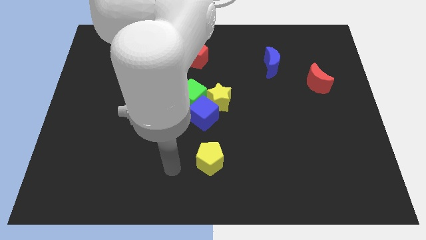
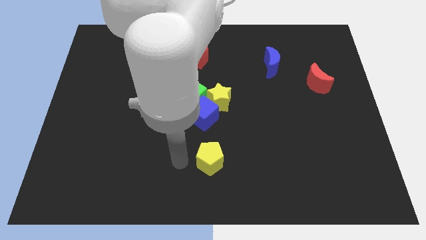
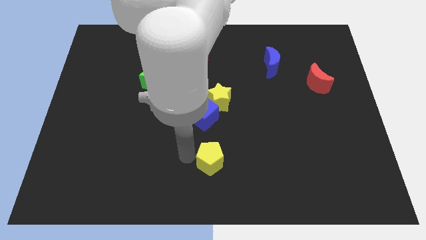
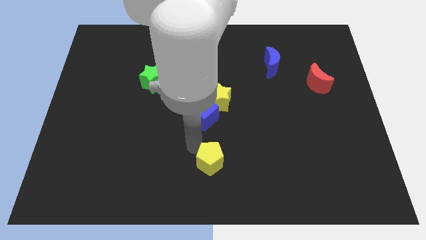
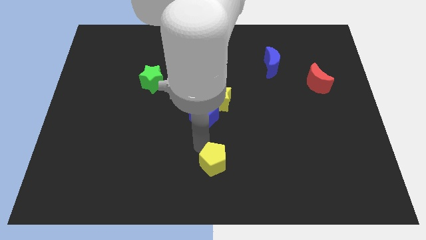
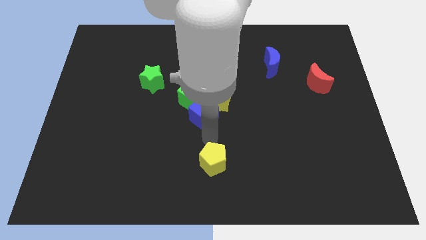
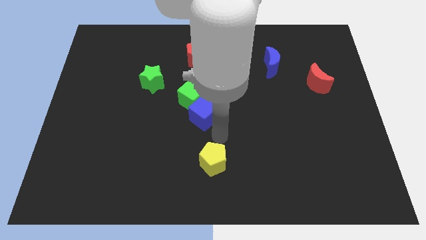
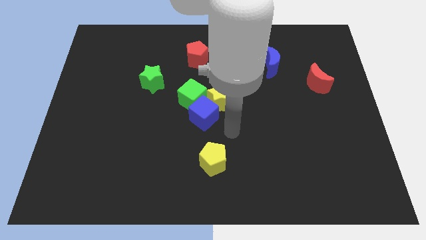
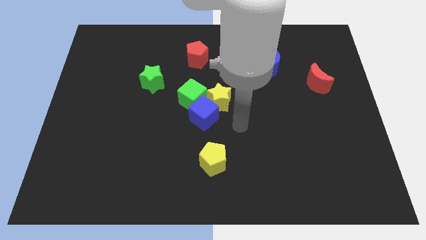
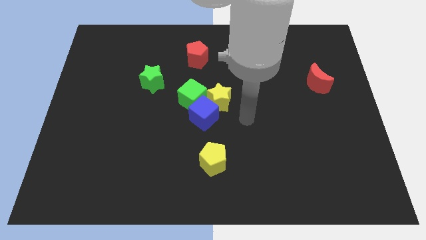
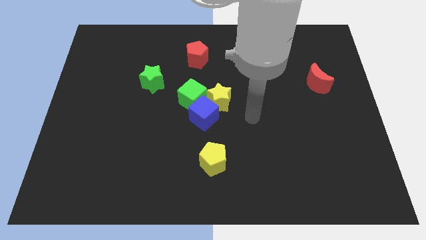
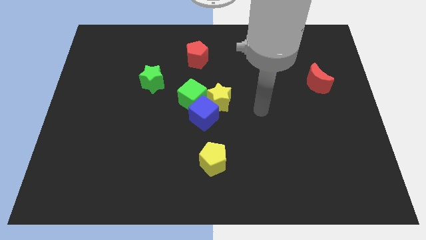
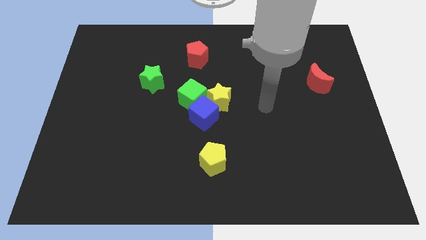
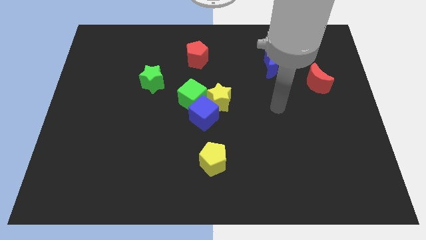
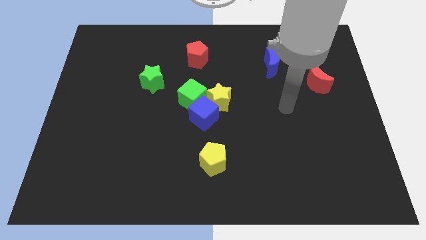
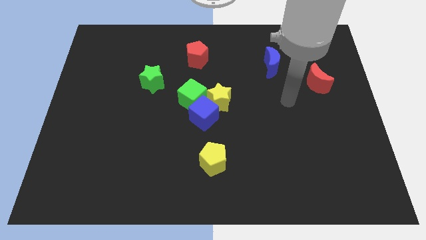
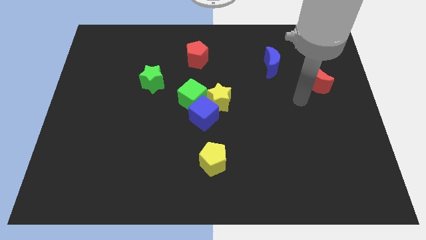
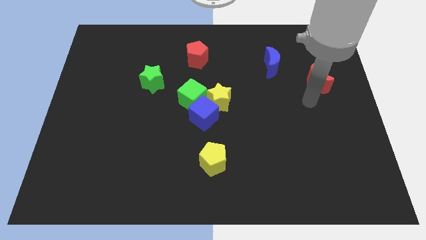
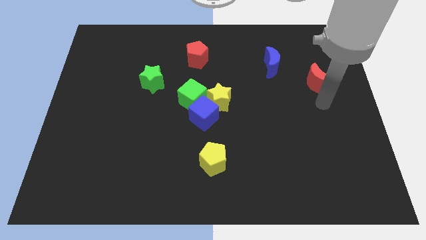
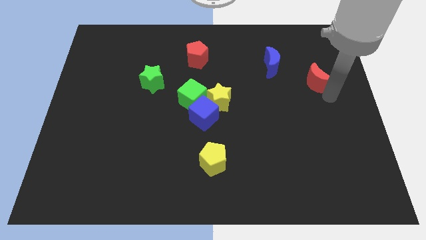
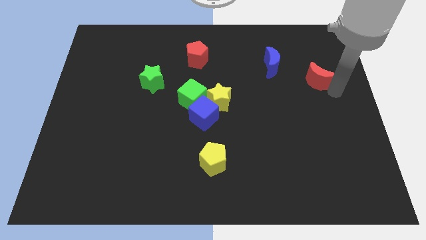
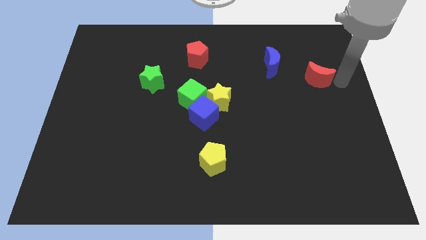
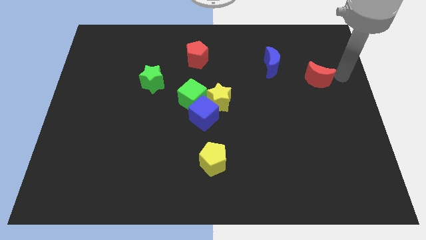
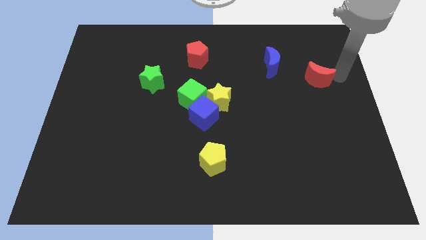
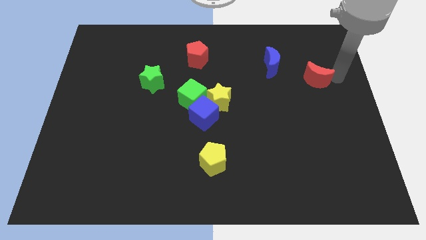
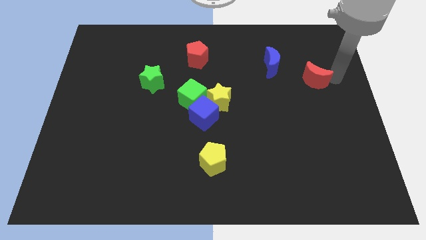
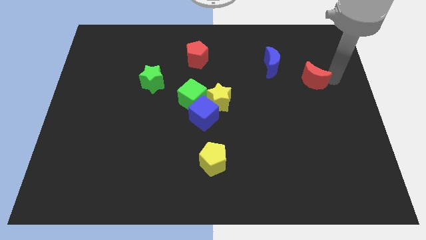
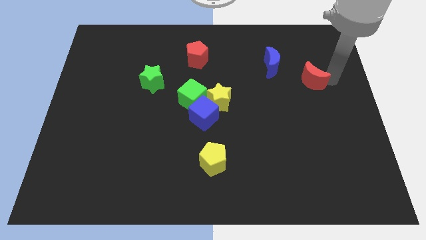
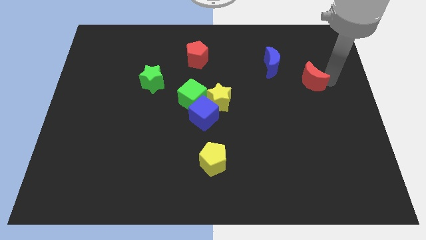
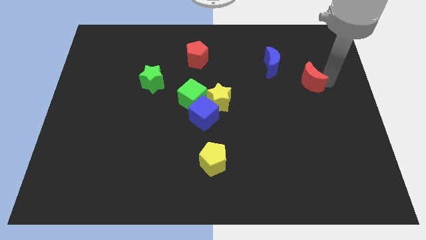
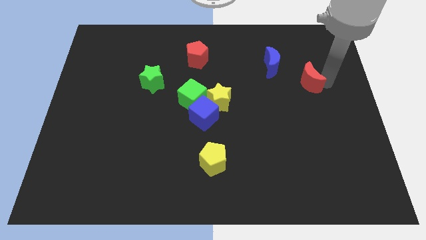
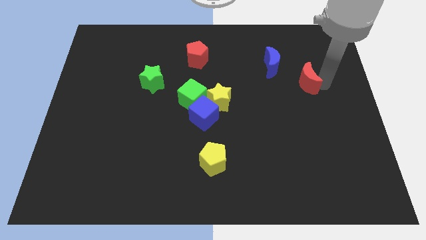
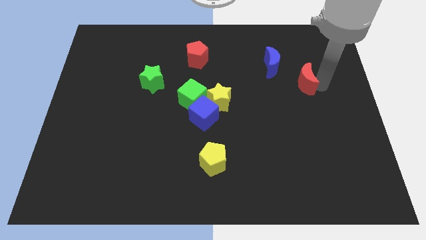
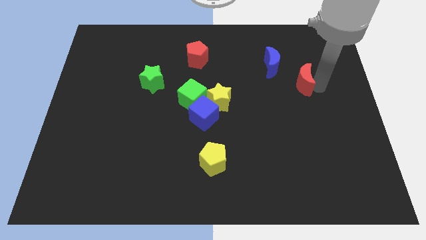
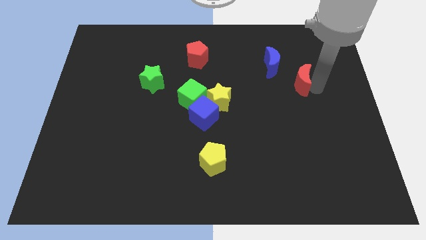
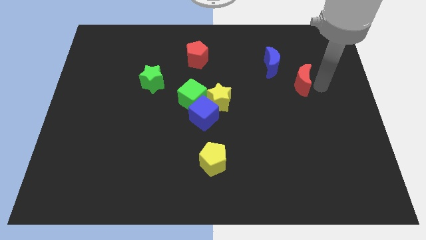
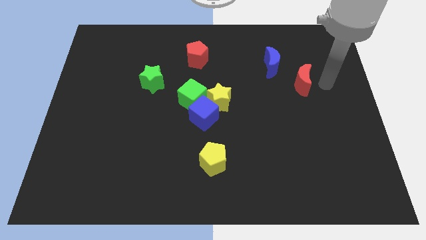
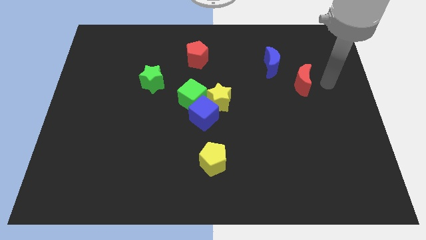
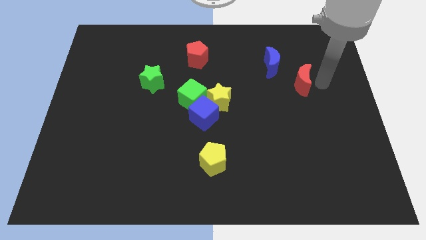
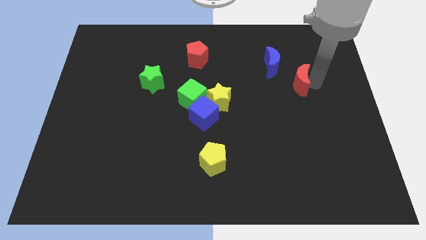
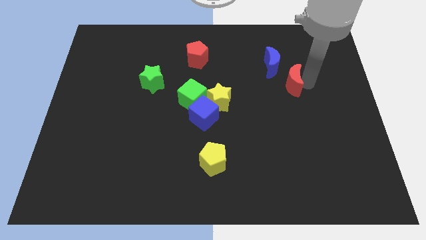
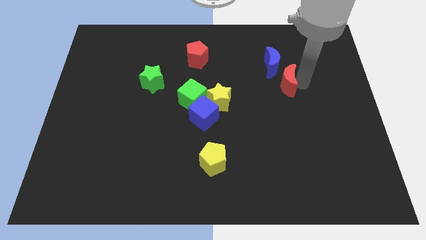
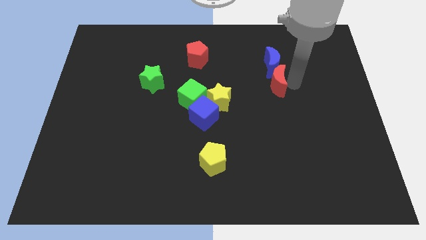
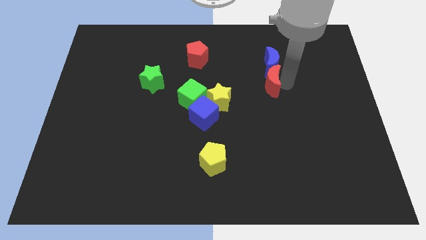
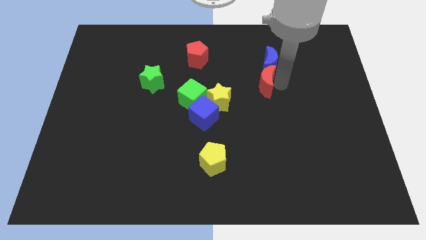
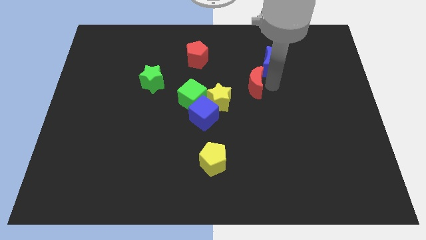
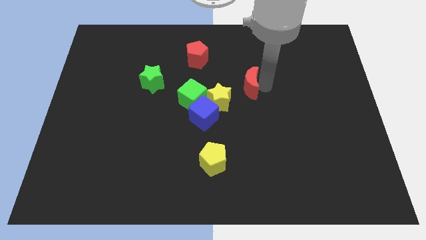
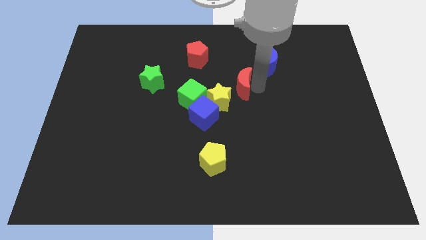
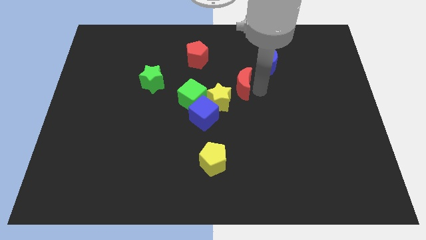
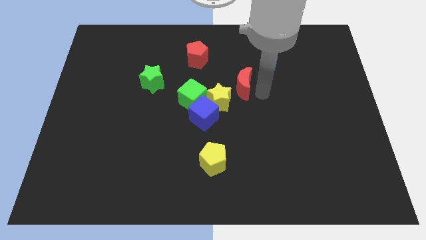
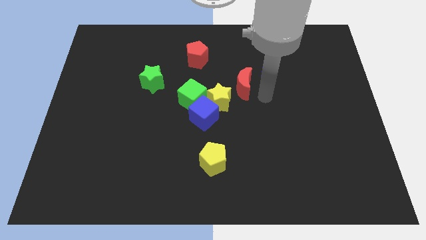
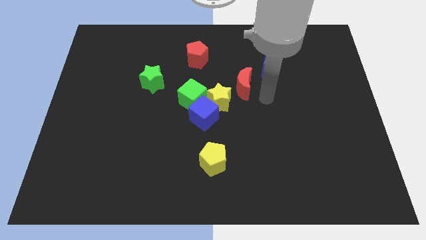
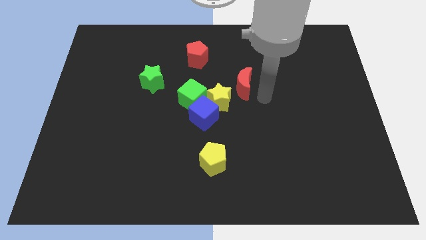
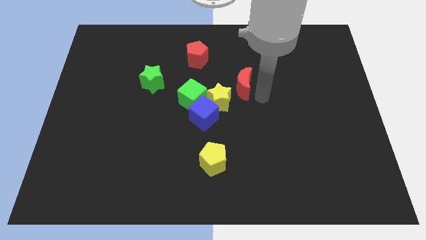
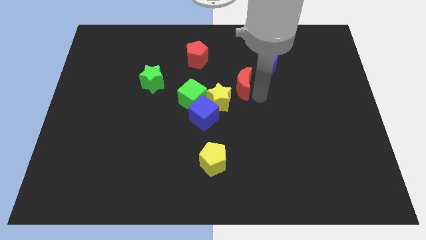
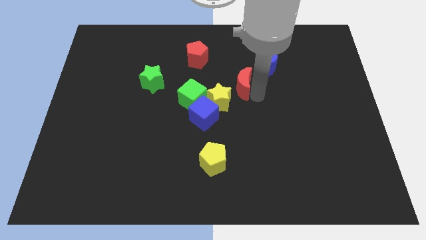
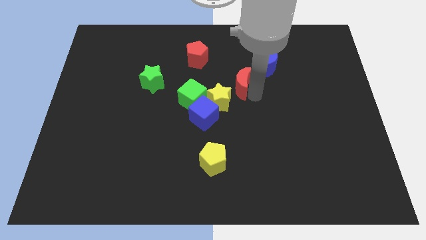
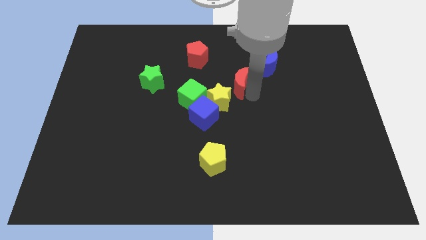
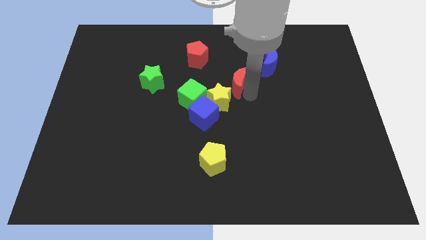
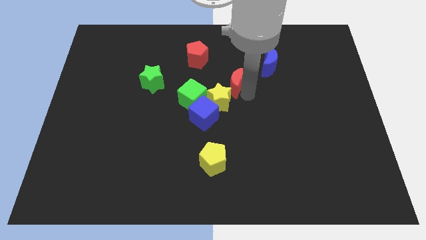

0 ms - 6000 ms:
move the red moon left

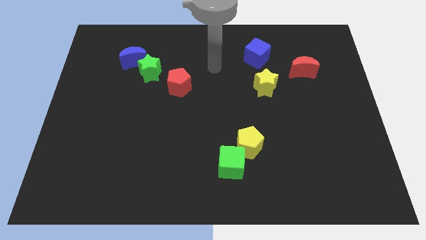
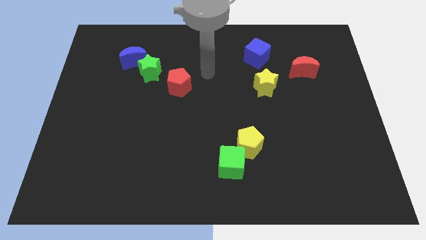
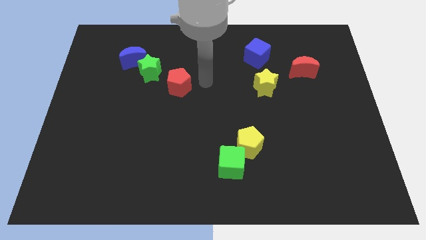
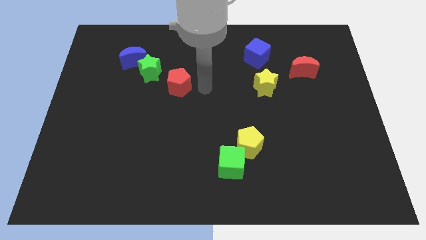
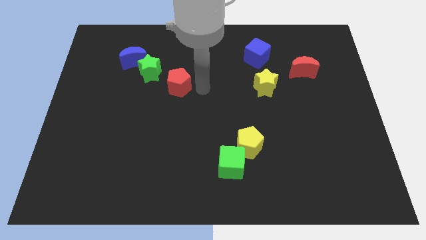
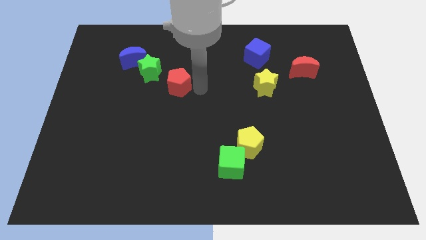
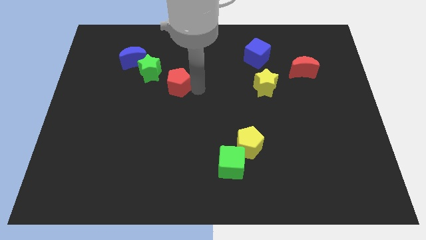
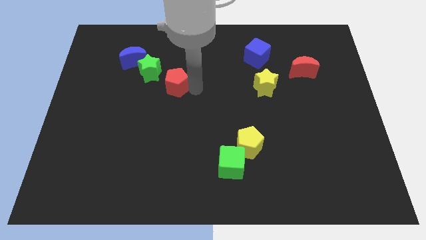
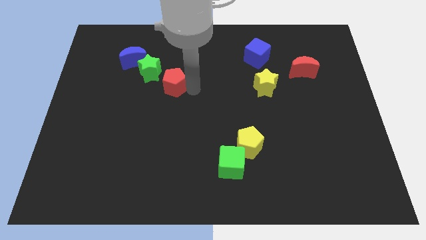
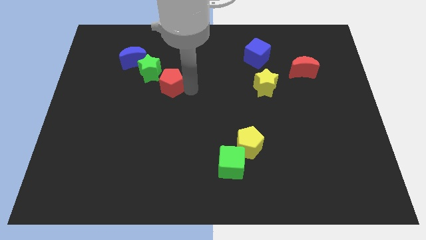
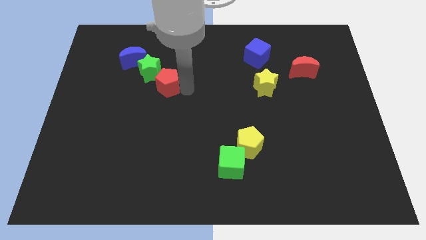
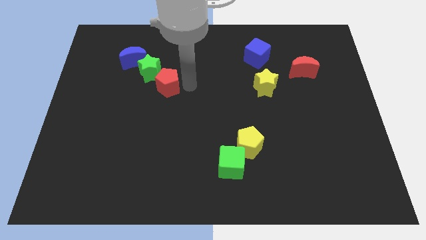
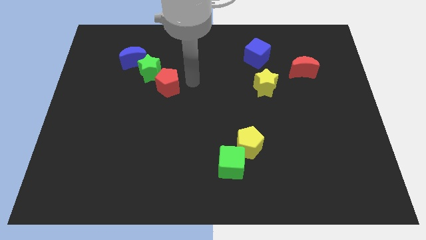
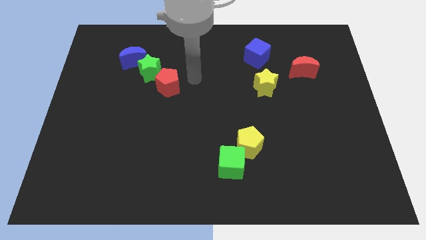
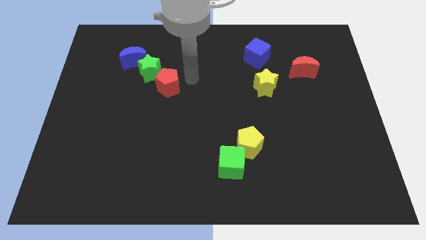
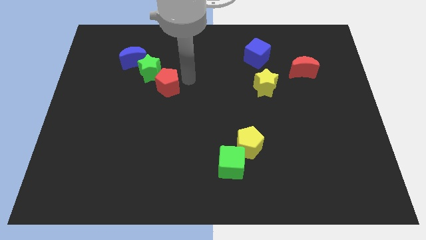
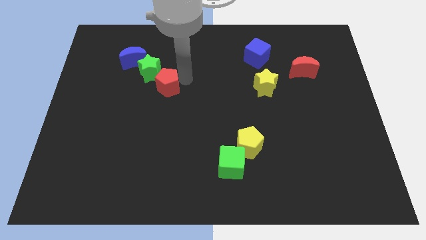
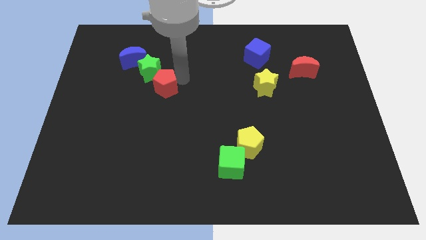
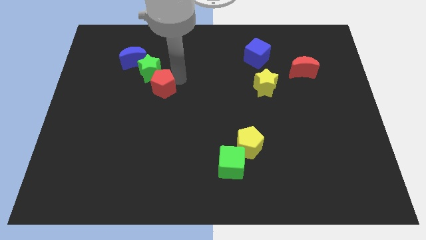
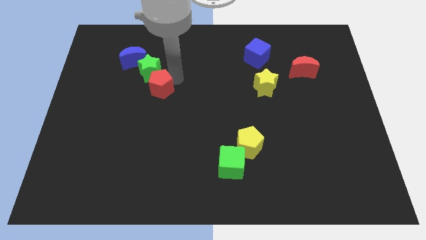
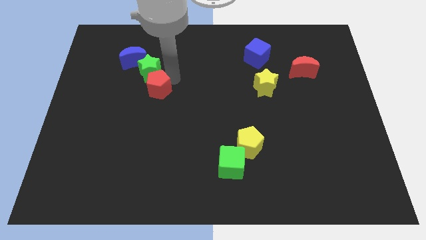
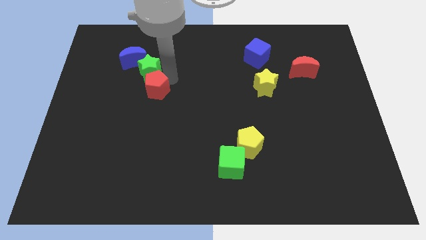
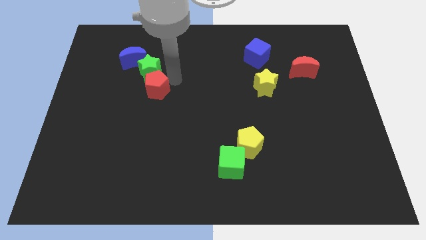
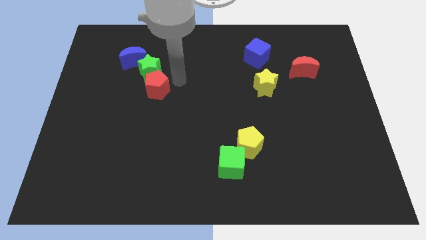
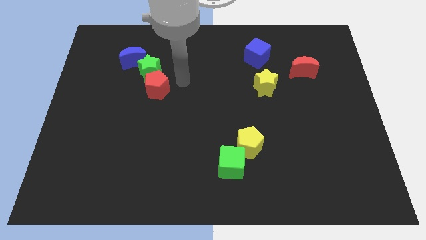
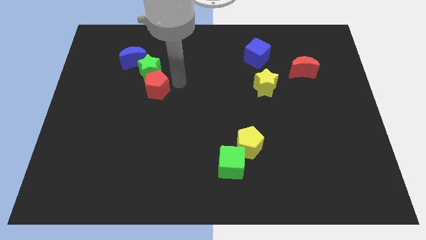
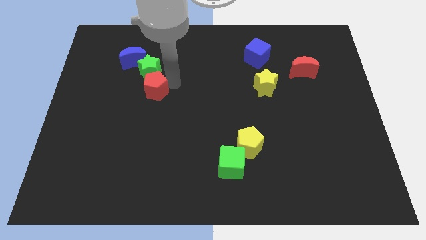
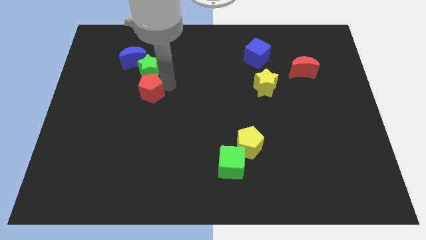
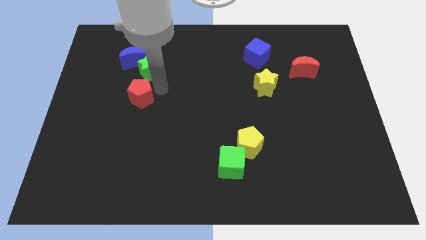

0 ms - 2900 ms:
move the red pentagon slightly to the left
